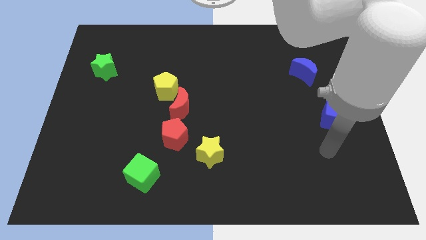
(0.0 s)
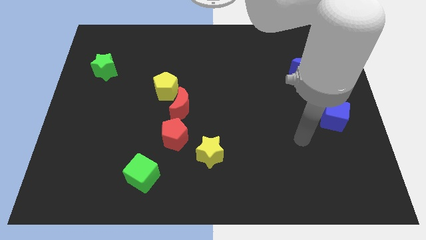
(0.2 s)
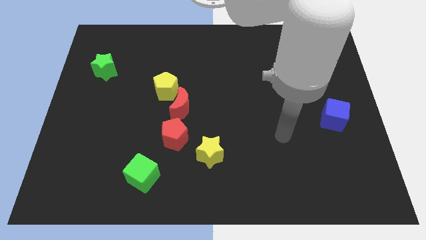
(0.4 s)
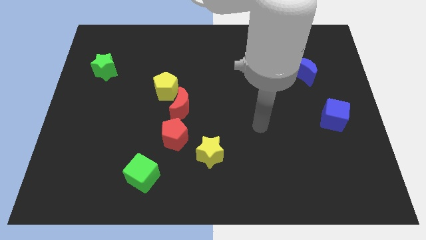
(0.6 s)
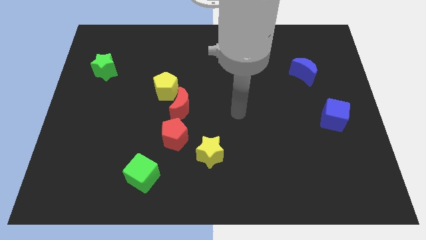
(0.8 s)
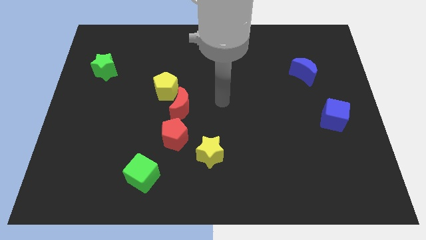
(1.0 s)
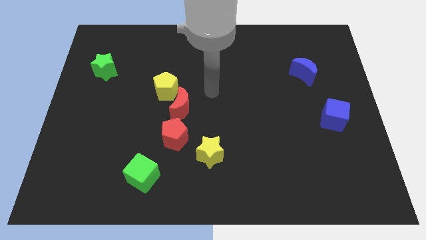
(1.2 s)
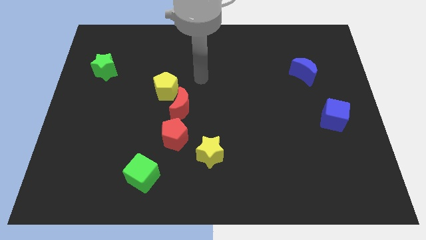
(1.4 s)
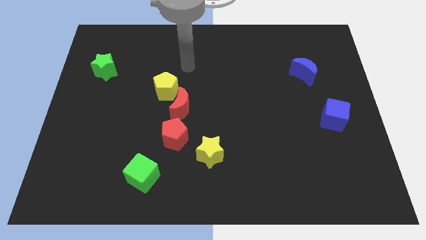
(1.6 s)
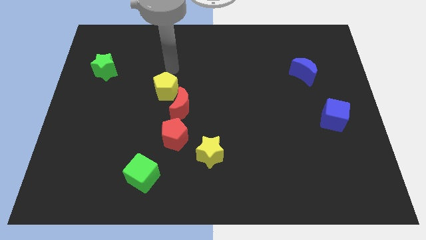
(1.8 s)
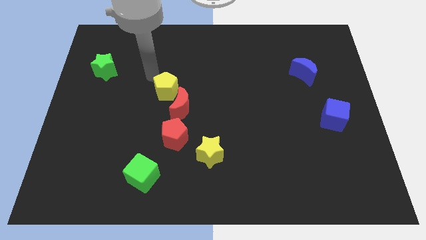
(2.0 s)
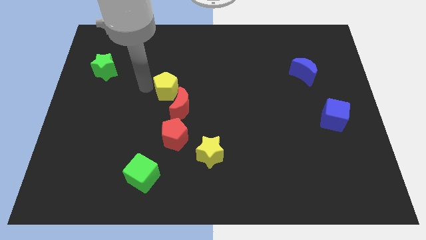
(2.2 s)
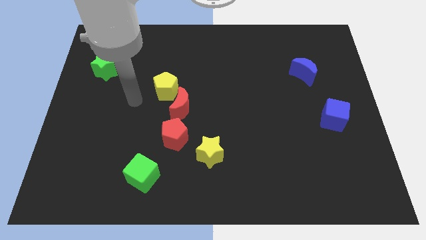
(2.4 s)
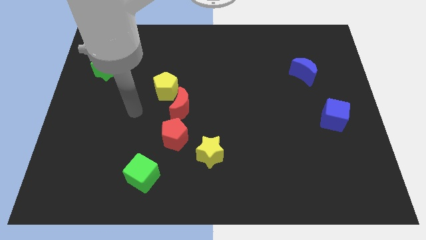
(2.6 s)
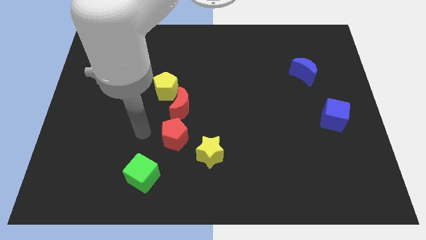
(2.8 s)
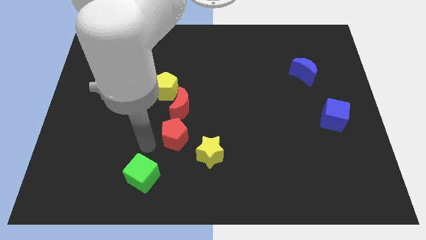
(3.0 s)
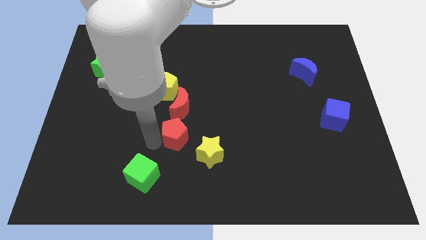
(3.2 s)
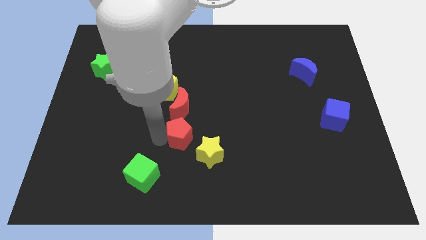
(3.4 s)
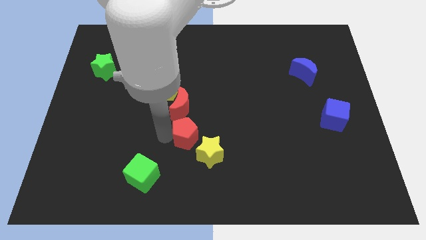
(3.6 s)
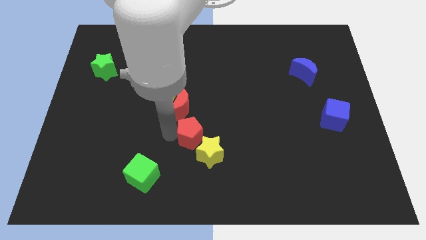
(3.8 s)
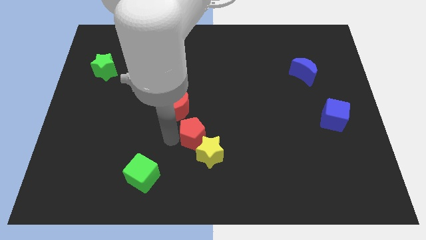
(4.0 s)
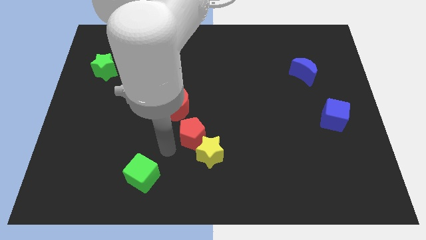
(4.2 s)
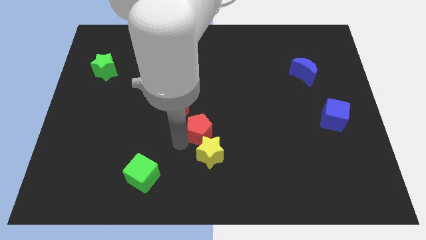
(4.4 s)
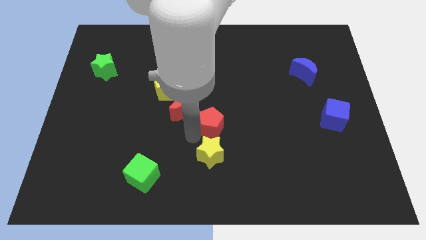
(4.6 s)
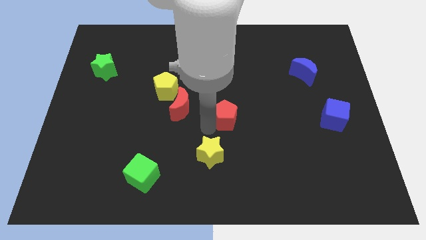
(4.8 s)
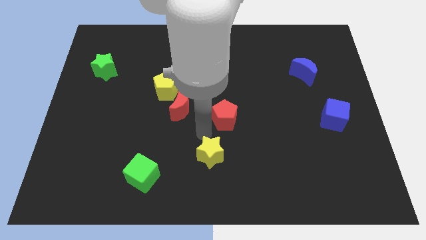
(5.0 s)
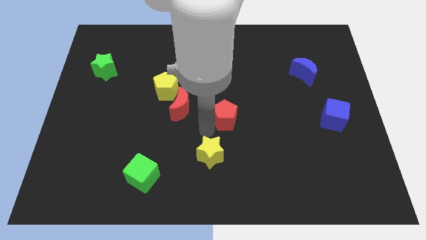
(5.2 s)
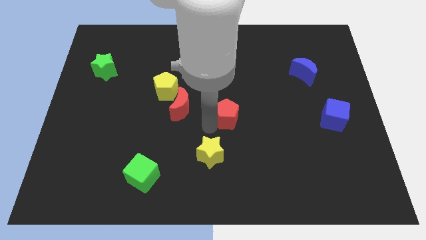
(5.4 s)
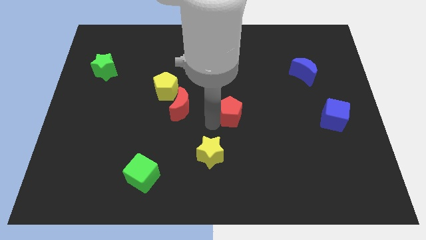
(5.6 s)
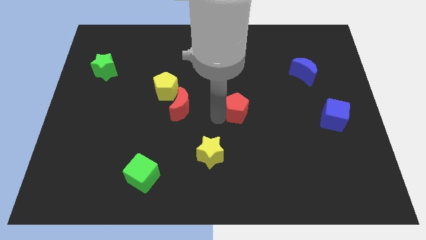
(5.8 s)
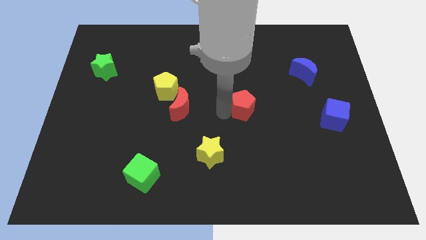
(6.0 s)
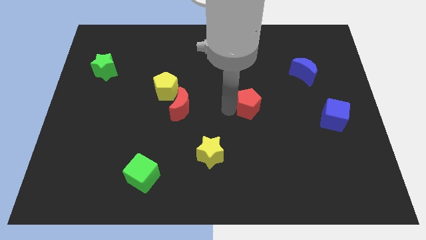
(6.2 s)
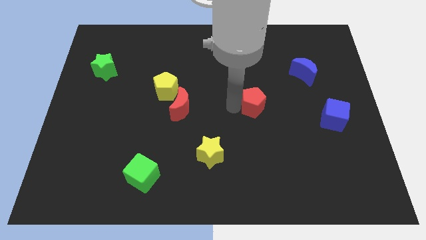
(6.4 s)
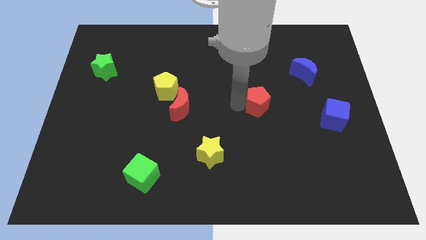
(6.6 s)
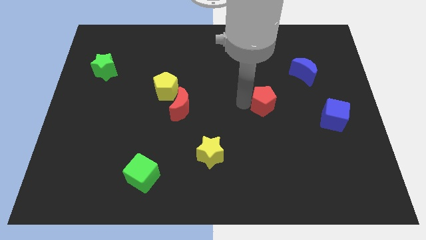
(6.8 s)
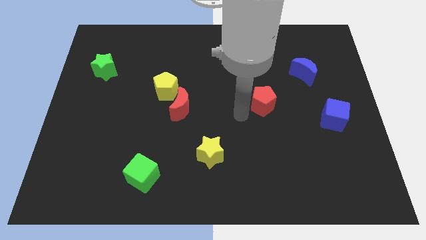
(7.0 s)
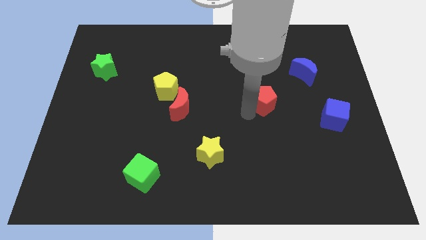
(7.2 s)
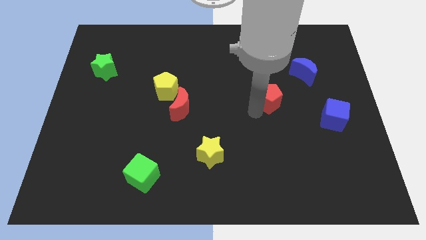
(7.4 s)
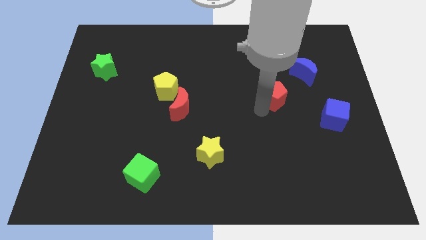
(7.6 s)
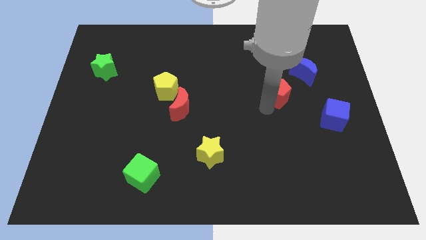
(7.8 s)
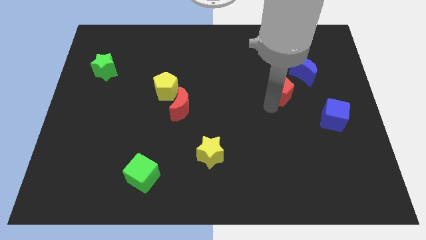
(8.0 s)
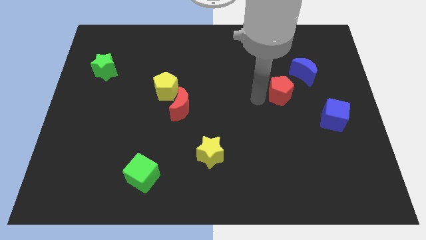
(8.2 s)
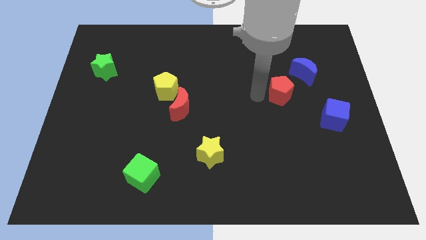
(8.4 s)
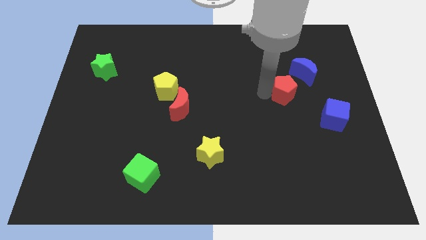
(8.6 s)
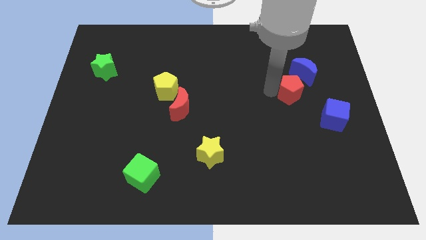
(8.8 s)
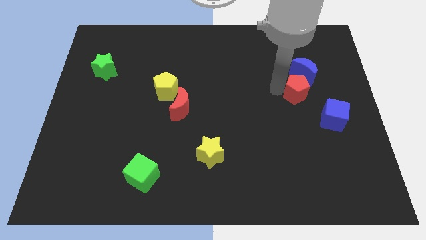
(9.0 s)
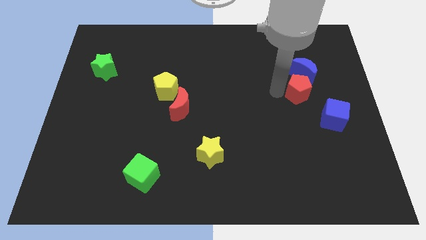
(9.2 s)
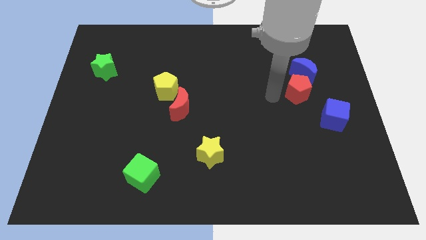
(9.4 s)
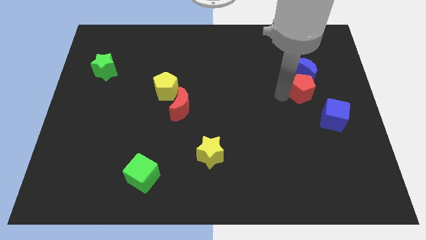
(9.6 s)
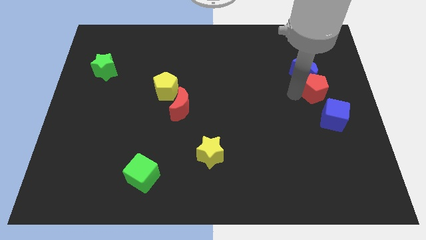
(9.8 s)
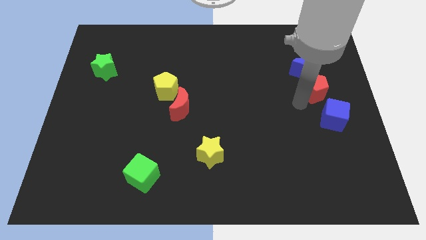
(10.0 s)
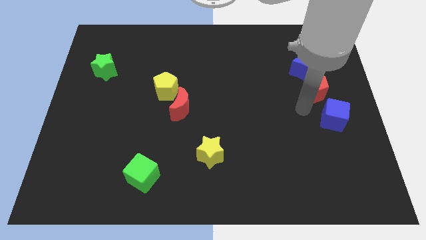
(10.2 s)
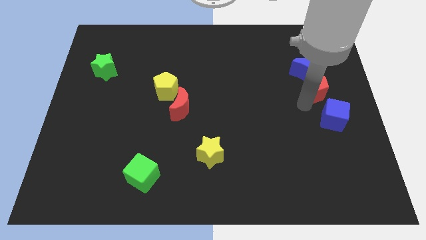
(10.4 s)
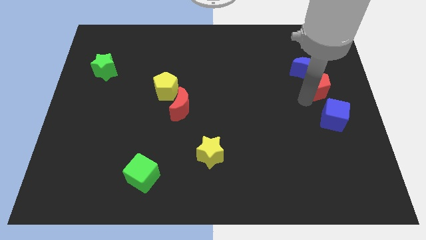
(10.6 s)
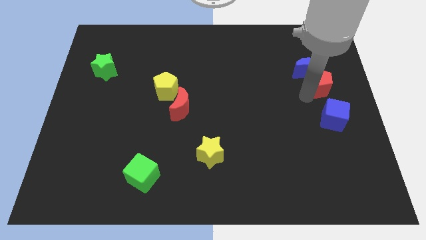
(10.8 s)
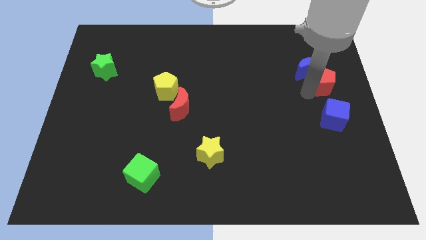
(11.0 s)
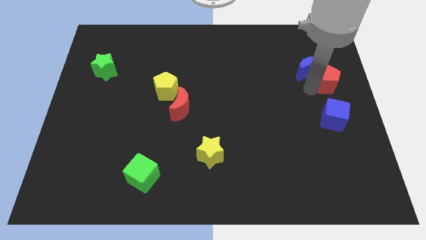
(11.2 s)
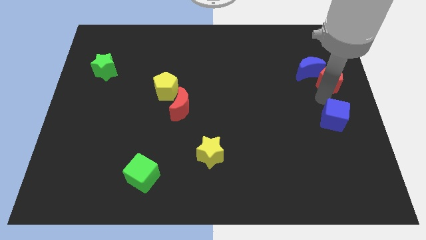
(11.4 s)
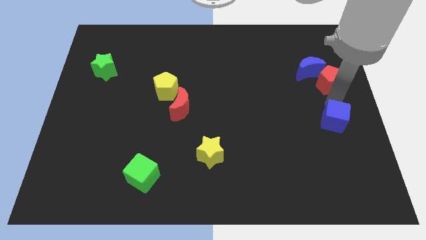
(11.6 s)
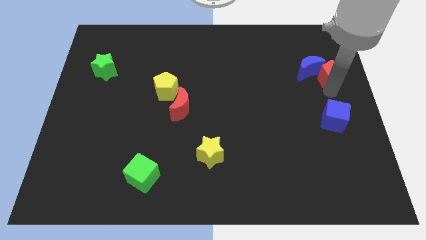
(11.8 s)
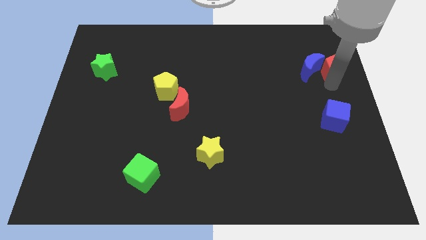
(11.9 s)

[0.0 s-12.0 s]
put the red pentagon to the top right side of the blue moon
